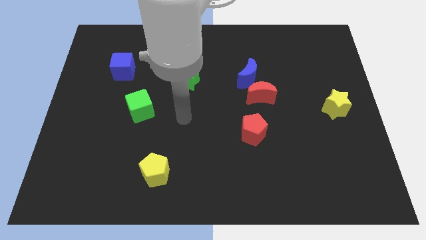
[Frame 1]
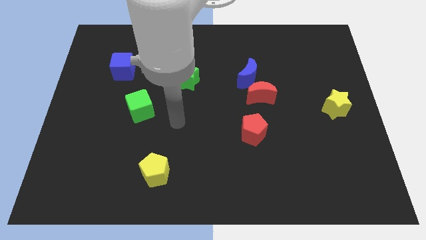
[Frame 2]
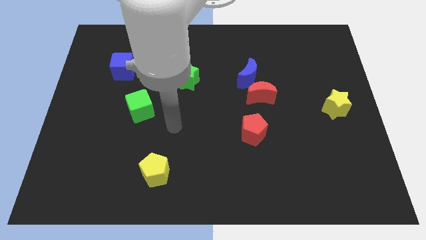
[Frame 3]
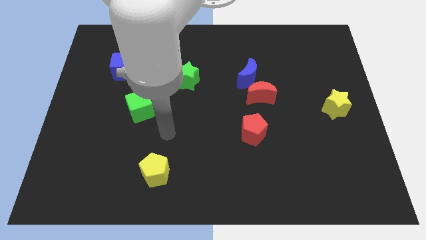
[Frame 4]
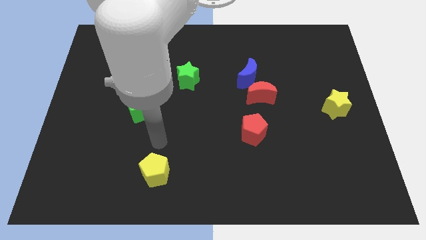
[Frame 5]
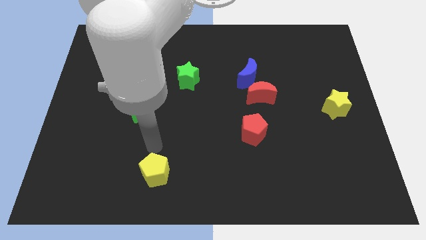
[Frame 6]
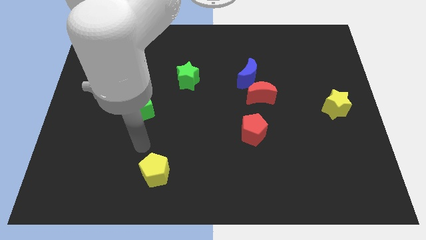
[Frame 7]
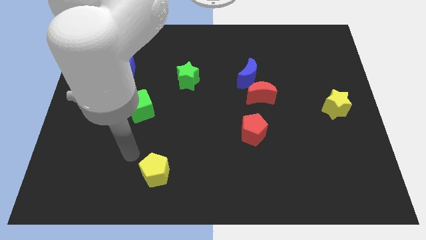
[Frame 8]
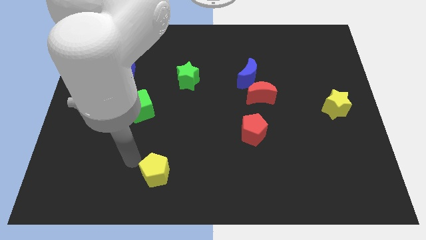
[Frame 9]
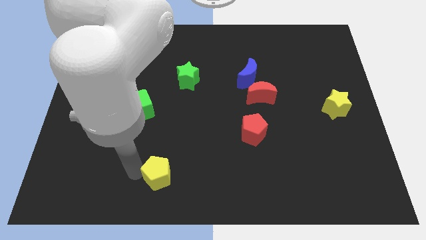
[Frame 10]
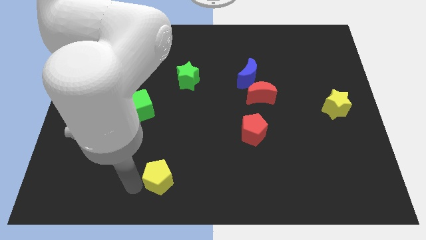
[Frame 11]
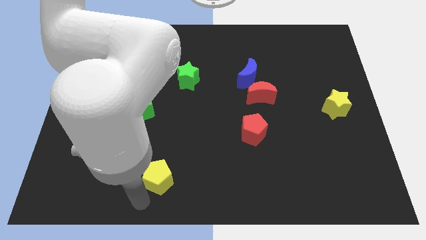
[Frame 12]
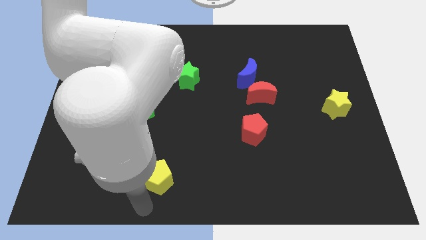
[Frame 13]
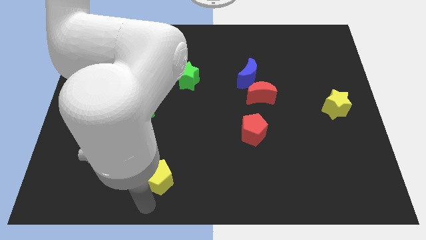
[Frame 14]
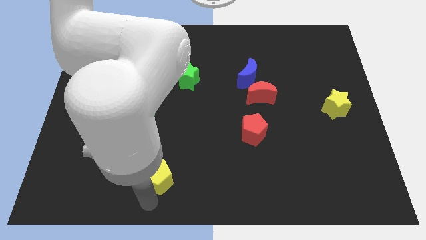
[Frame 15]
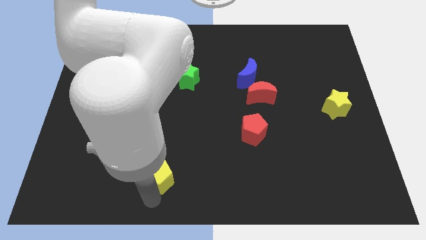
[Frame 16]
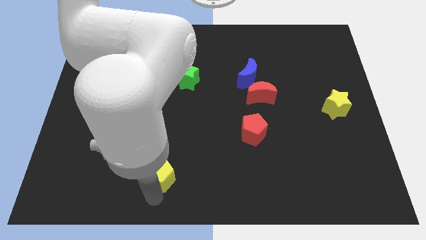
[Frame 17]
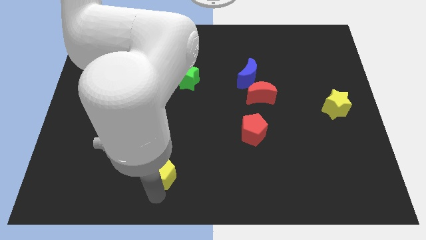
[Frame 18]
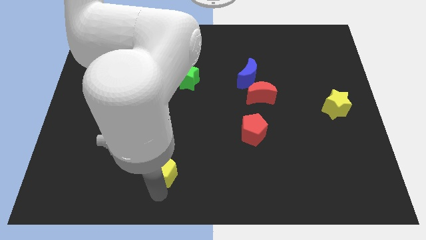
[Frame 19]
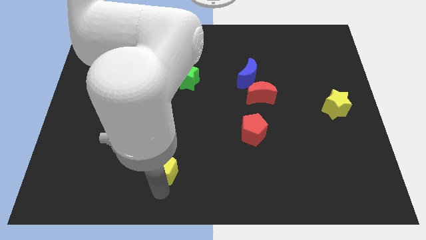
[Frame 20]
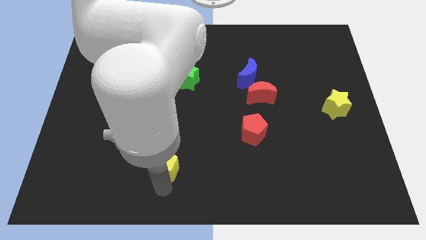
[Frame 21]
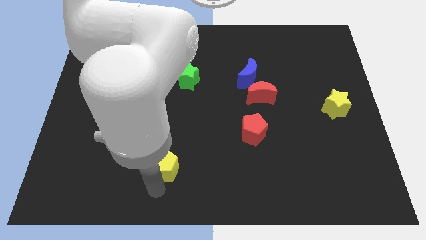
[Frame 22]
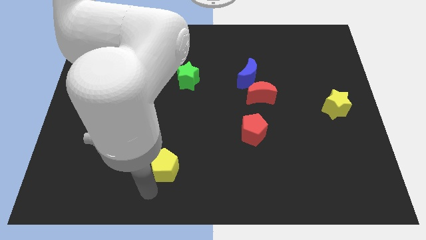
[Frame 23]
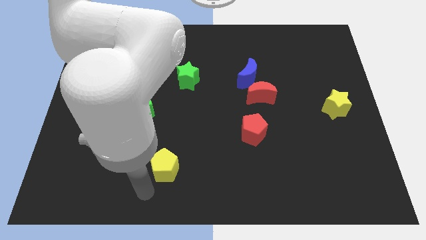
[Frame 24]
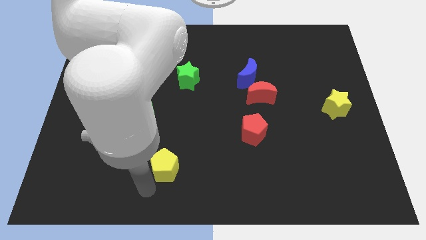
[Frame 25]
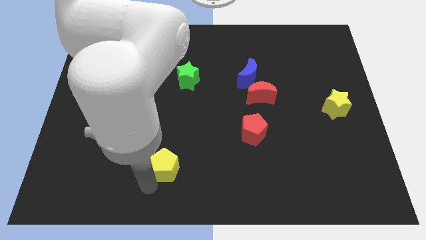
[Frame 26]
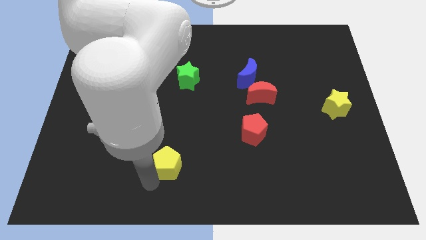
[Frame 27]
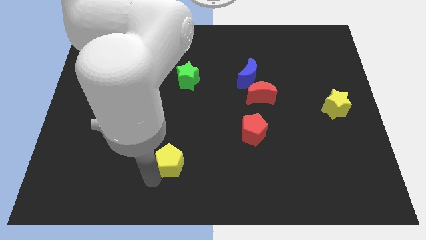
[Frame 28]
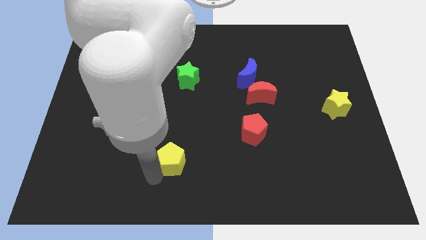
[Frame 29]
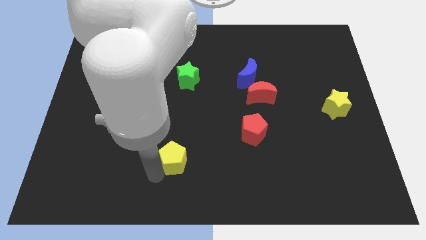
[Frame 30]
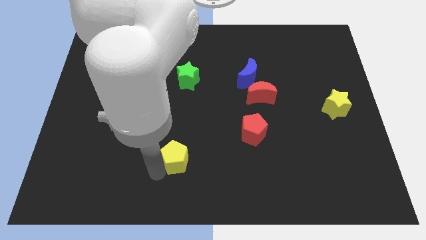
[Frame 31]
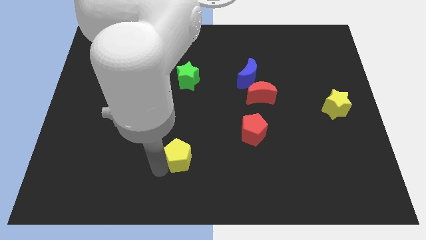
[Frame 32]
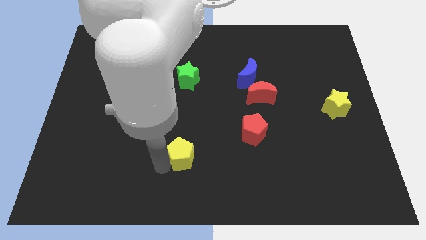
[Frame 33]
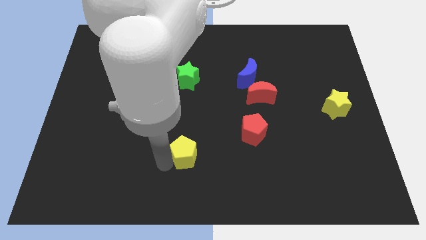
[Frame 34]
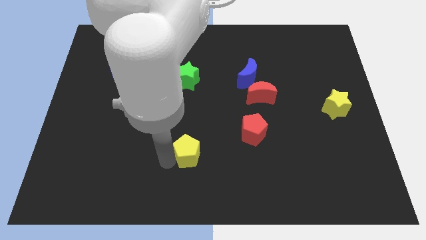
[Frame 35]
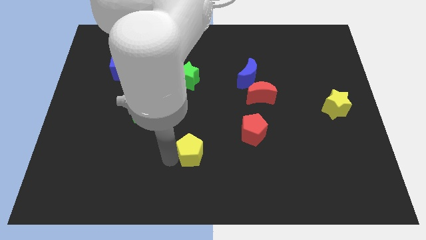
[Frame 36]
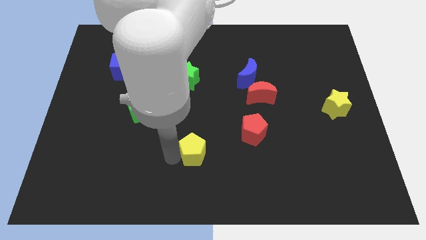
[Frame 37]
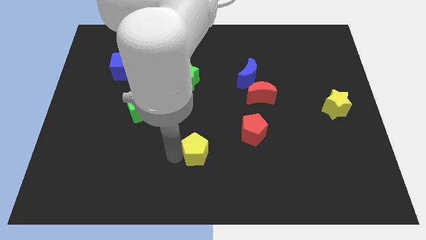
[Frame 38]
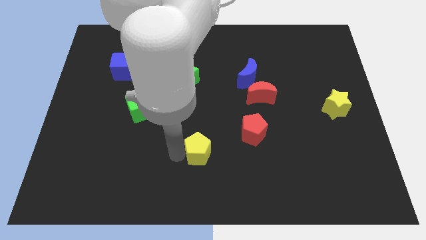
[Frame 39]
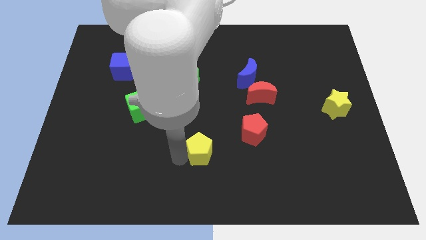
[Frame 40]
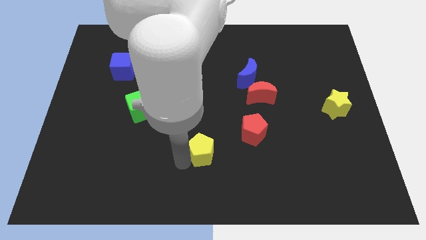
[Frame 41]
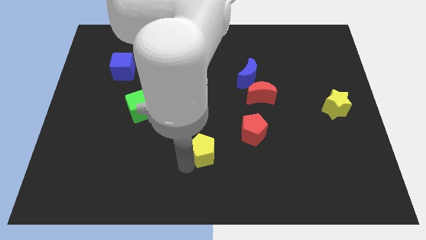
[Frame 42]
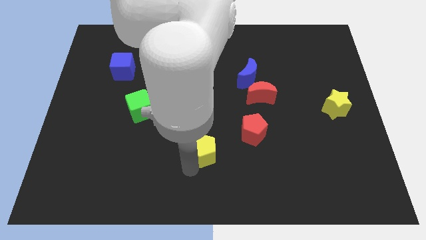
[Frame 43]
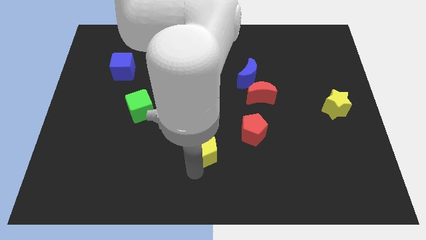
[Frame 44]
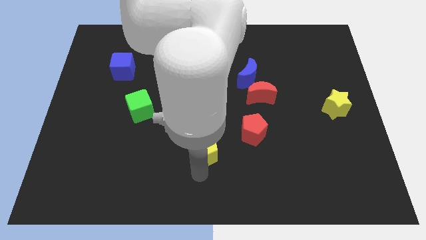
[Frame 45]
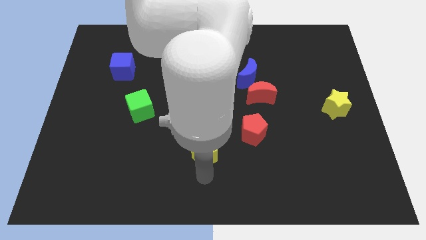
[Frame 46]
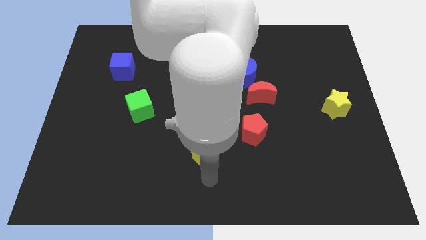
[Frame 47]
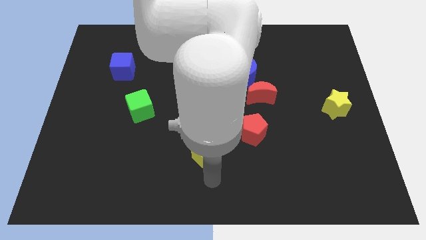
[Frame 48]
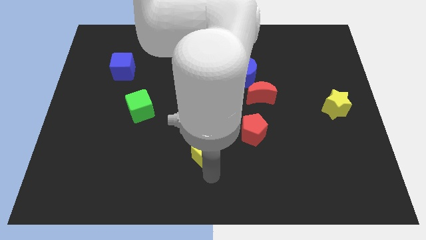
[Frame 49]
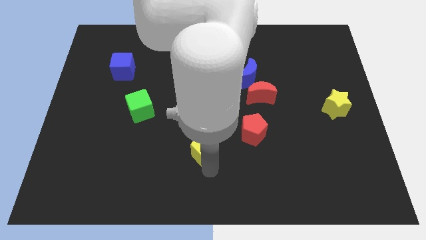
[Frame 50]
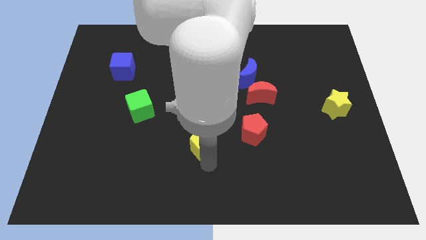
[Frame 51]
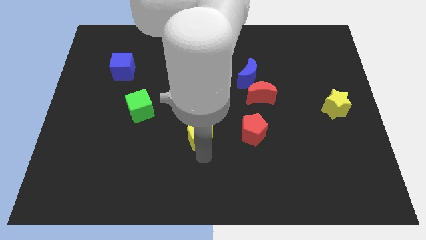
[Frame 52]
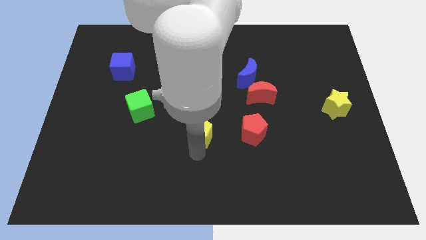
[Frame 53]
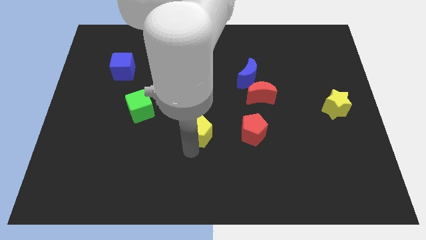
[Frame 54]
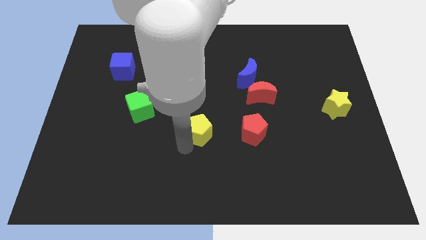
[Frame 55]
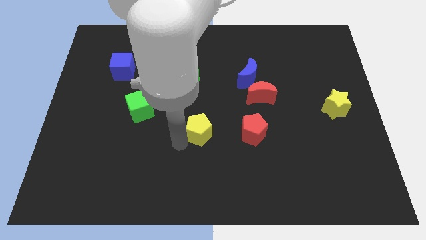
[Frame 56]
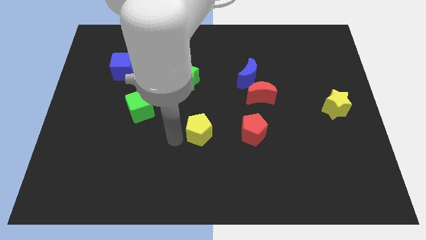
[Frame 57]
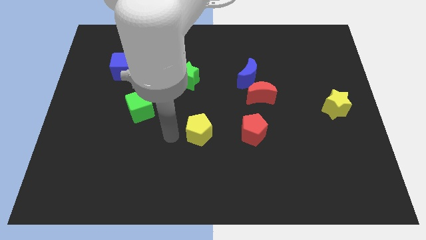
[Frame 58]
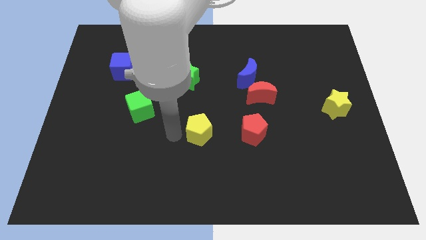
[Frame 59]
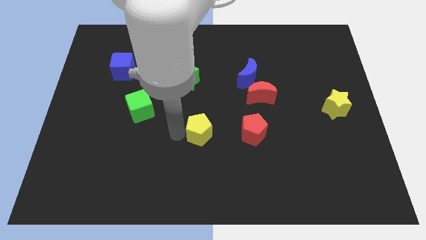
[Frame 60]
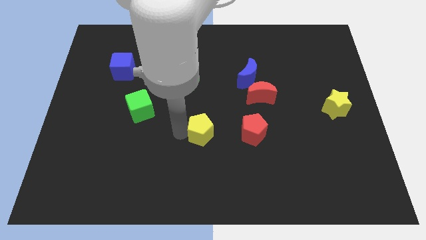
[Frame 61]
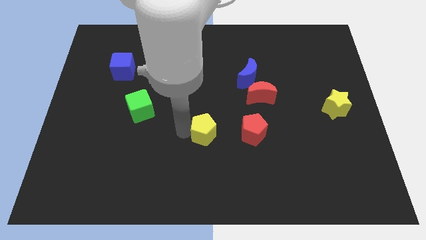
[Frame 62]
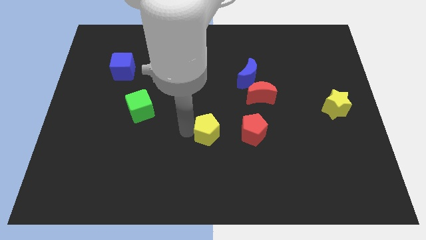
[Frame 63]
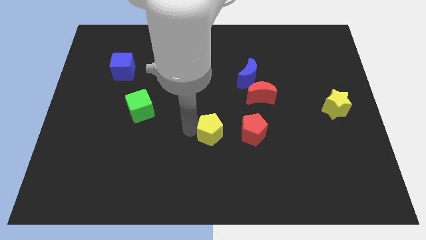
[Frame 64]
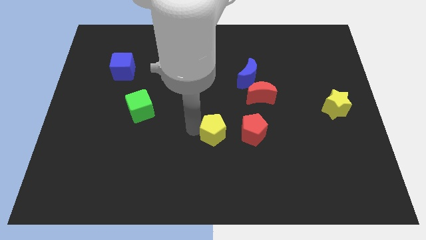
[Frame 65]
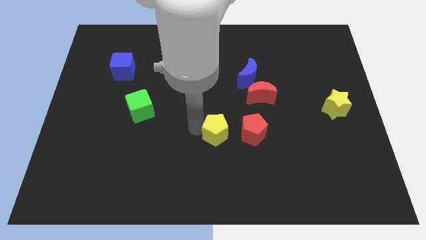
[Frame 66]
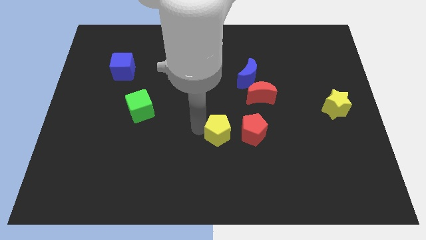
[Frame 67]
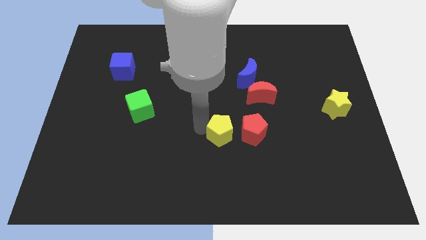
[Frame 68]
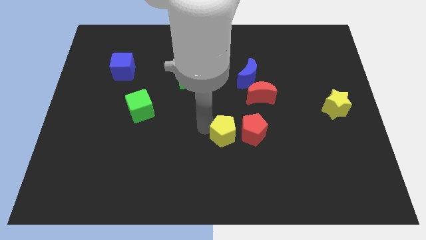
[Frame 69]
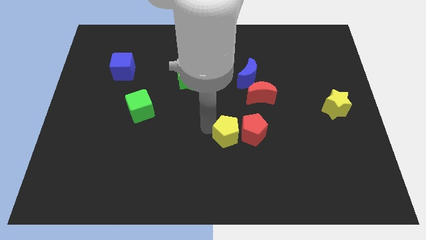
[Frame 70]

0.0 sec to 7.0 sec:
put the yellow pentagon close to the red pentagon
